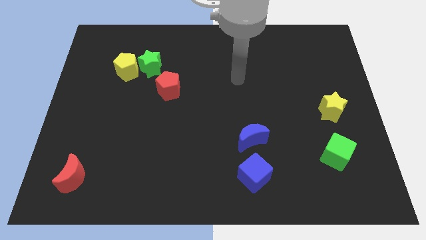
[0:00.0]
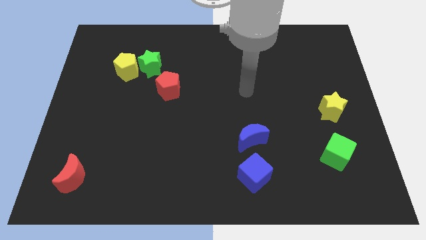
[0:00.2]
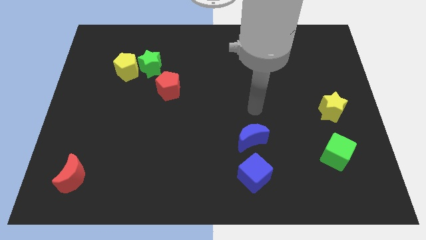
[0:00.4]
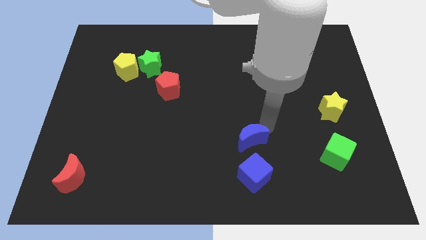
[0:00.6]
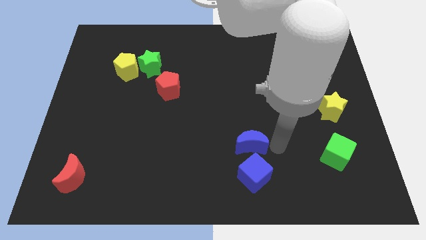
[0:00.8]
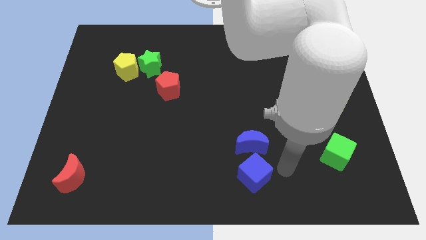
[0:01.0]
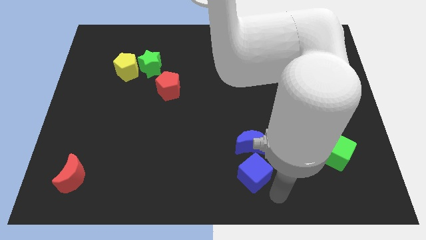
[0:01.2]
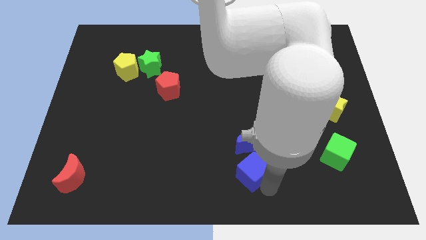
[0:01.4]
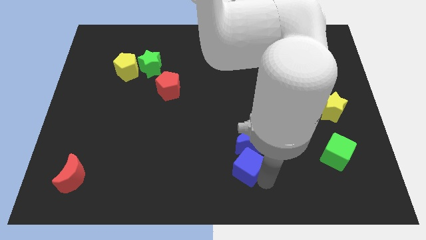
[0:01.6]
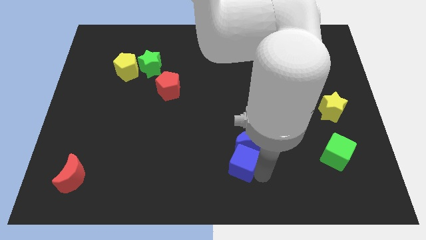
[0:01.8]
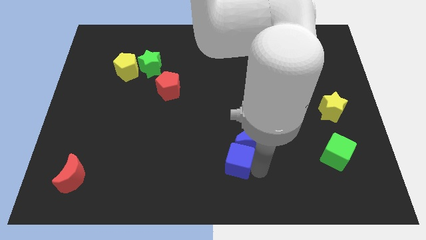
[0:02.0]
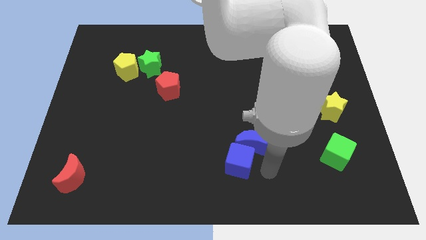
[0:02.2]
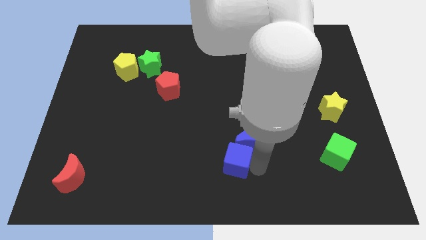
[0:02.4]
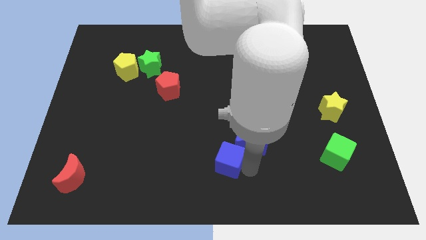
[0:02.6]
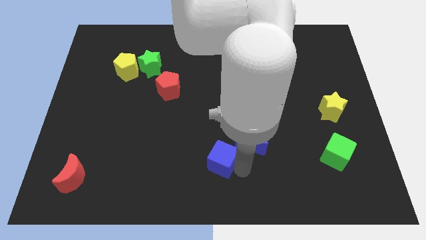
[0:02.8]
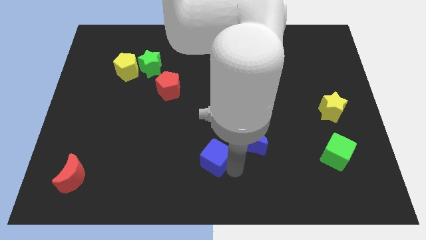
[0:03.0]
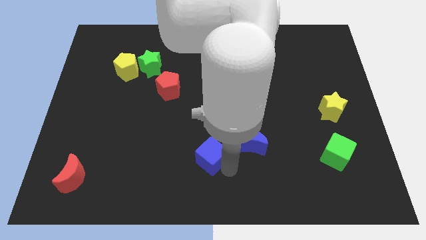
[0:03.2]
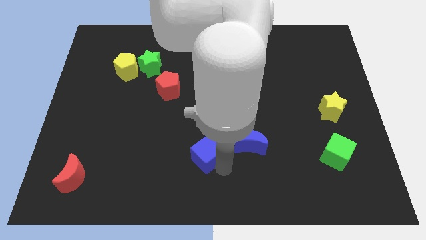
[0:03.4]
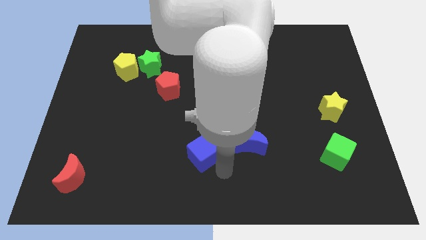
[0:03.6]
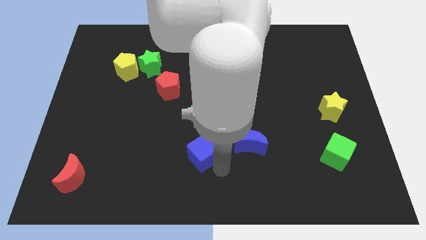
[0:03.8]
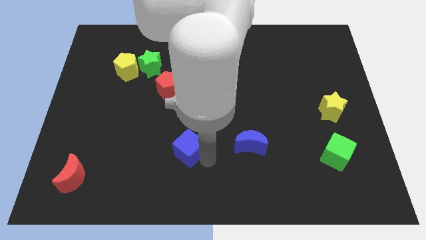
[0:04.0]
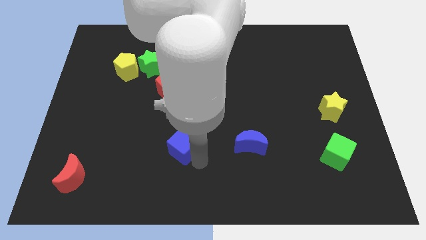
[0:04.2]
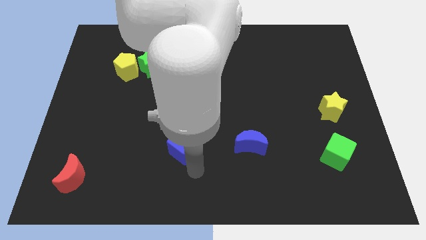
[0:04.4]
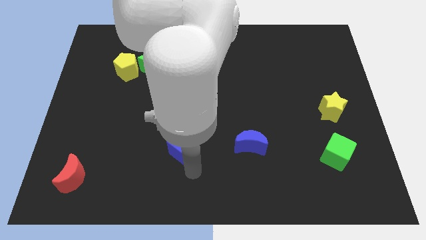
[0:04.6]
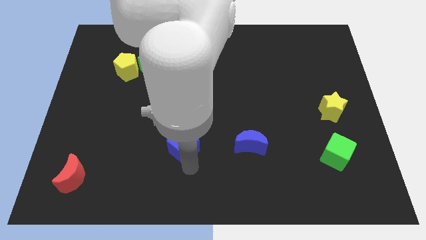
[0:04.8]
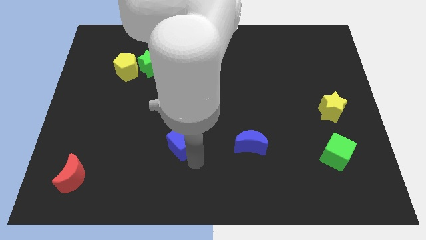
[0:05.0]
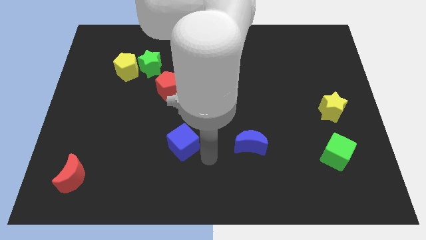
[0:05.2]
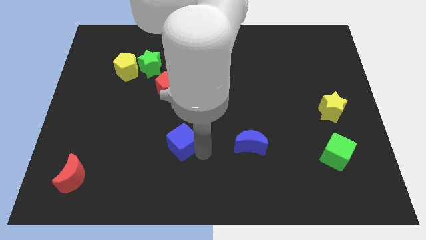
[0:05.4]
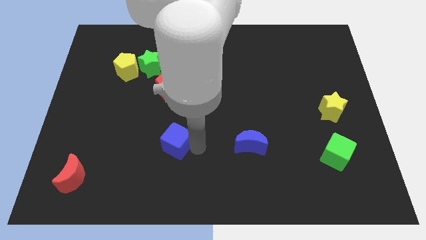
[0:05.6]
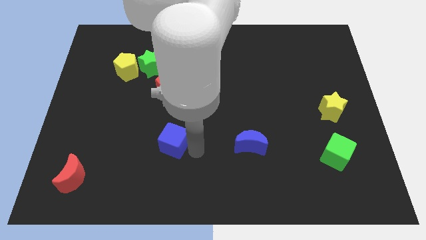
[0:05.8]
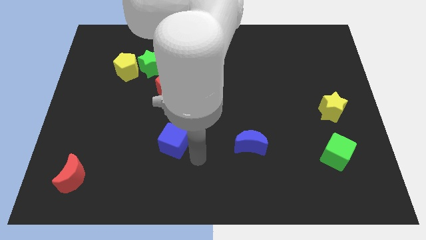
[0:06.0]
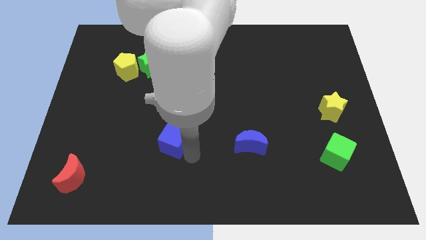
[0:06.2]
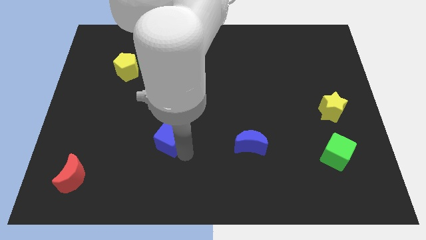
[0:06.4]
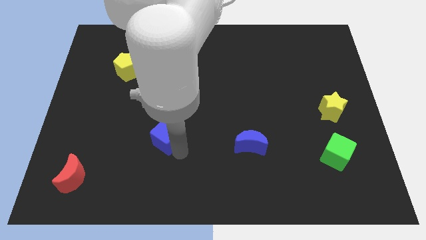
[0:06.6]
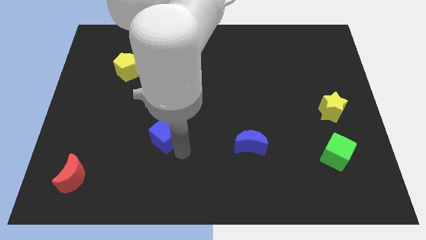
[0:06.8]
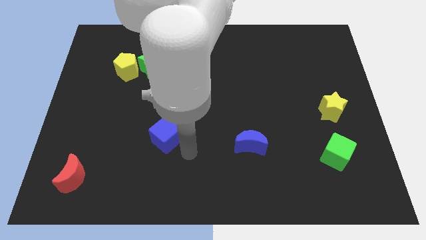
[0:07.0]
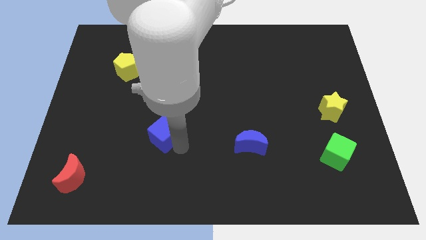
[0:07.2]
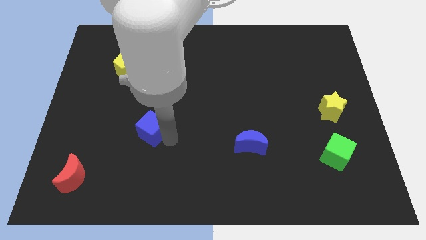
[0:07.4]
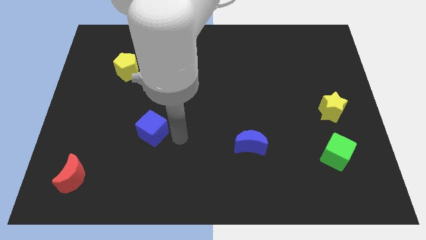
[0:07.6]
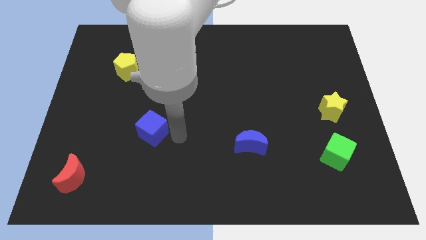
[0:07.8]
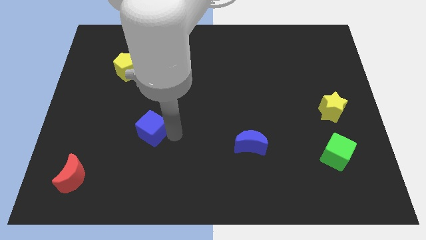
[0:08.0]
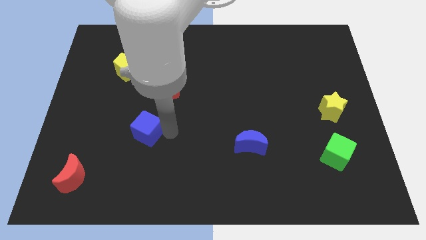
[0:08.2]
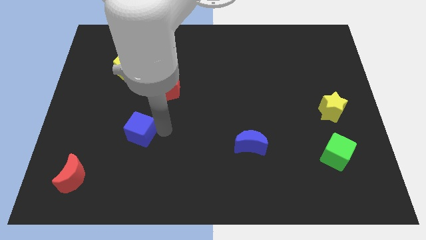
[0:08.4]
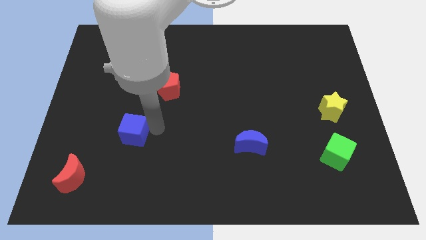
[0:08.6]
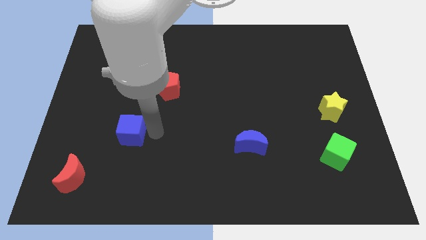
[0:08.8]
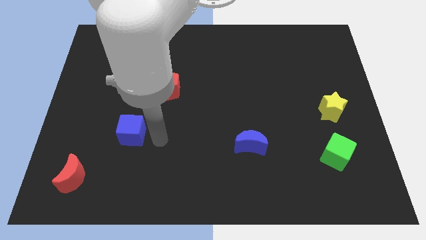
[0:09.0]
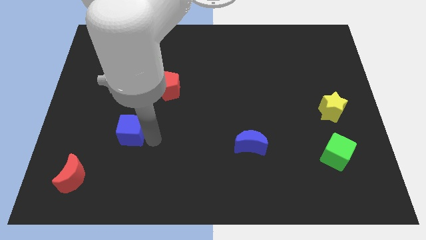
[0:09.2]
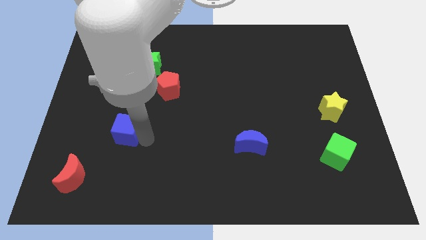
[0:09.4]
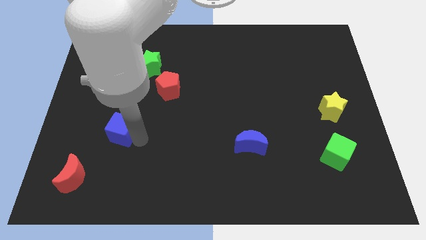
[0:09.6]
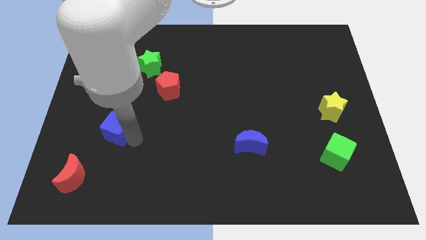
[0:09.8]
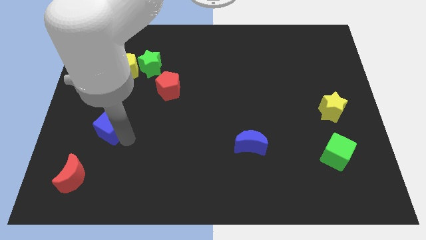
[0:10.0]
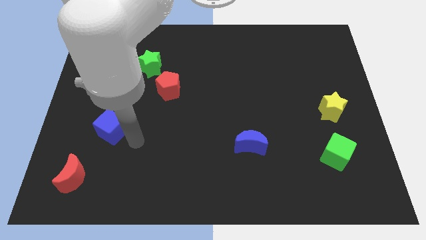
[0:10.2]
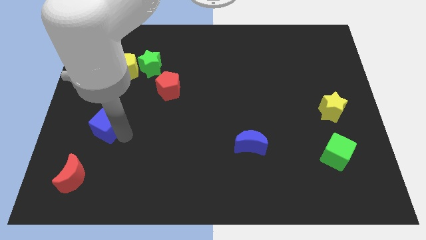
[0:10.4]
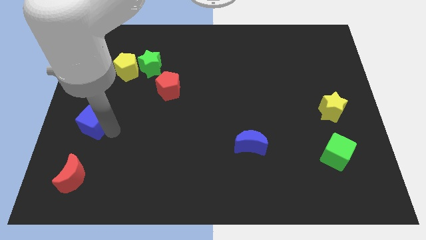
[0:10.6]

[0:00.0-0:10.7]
push the blue cube to the center left
